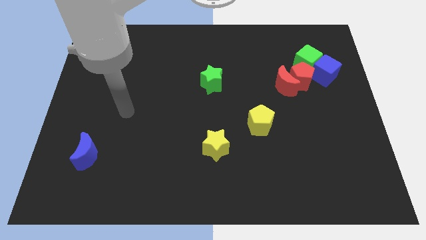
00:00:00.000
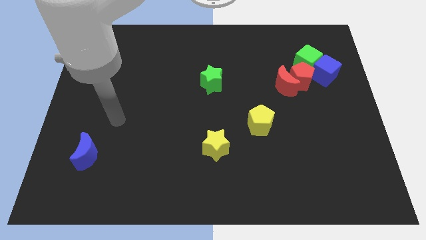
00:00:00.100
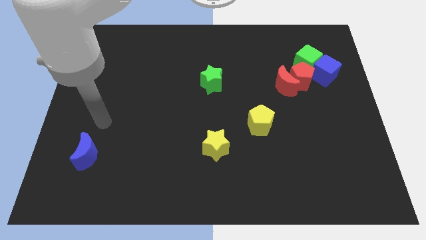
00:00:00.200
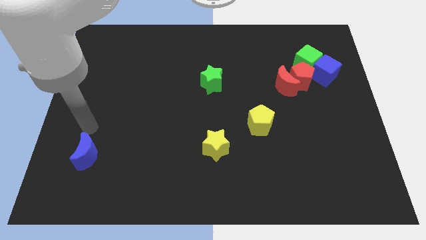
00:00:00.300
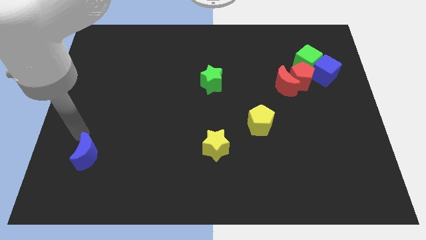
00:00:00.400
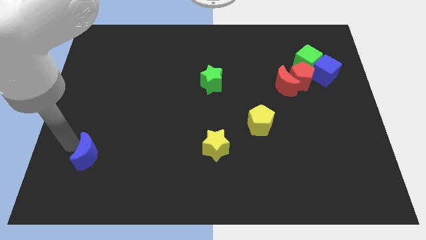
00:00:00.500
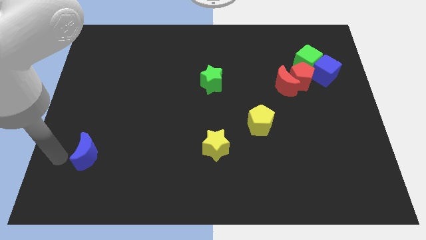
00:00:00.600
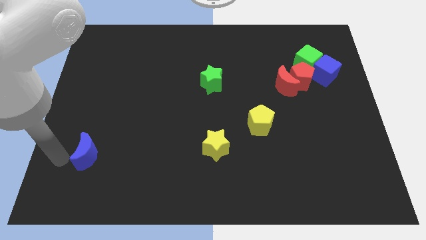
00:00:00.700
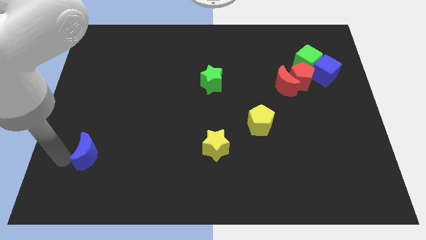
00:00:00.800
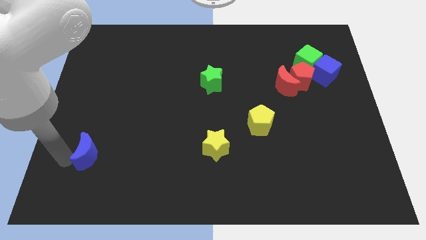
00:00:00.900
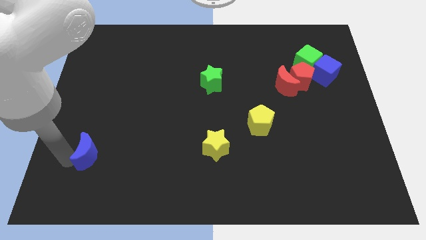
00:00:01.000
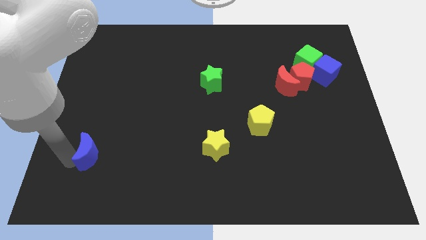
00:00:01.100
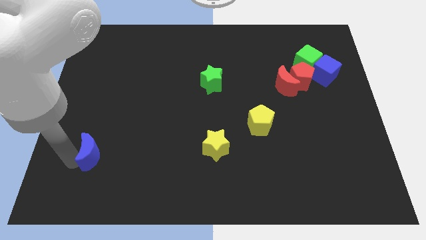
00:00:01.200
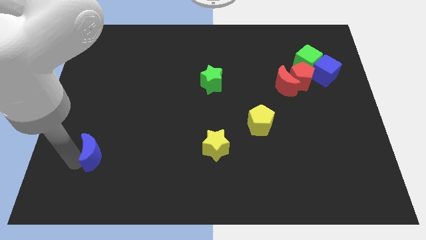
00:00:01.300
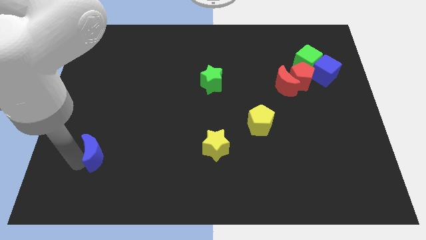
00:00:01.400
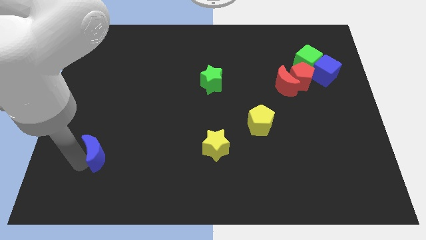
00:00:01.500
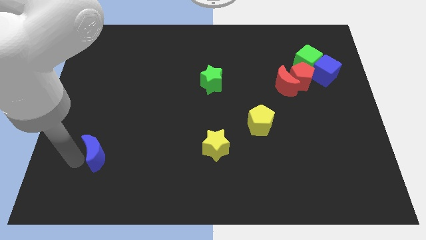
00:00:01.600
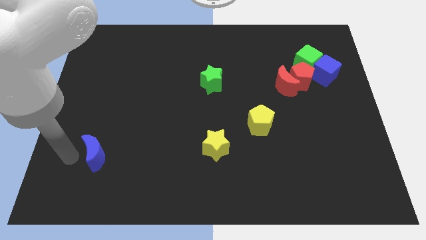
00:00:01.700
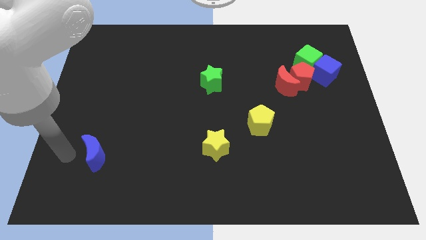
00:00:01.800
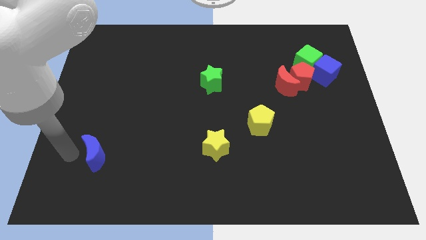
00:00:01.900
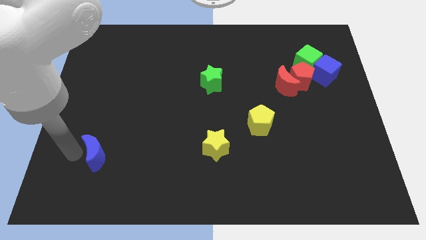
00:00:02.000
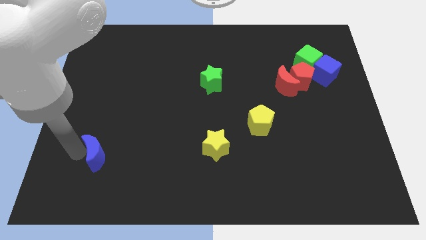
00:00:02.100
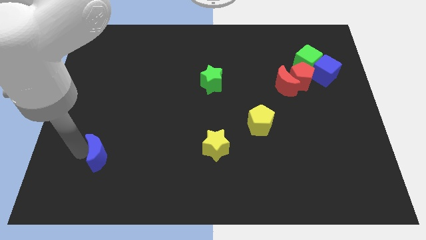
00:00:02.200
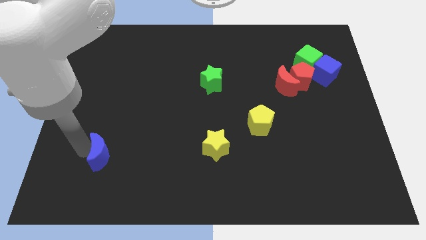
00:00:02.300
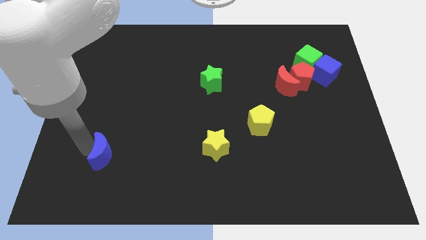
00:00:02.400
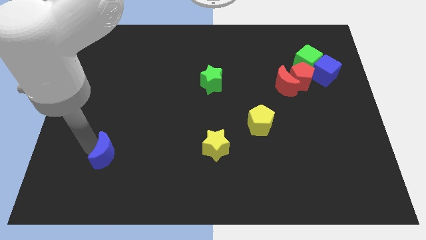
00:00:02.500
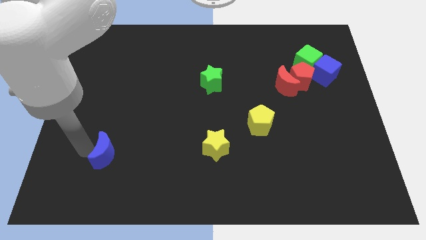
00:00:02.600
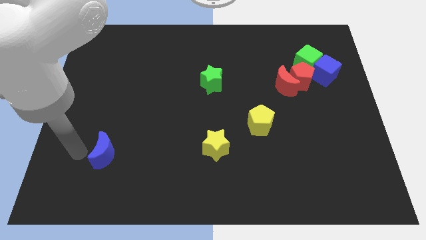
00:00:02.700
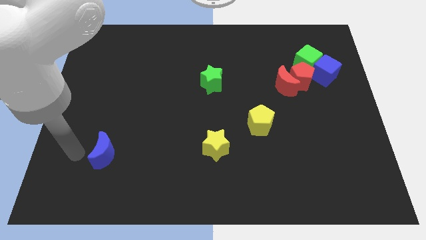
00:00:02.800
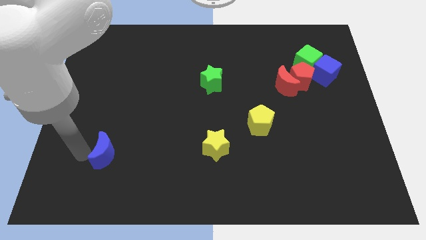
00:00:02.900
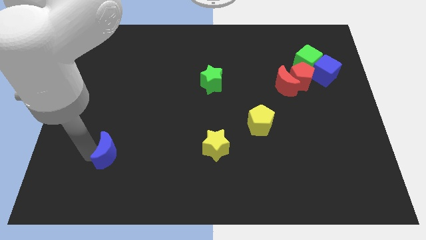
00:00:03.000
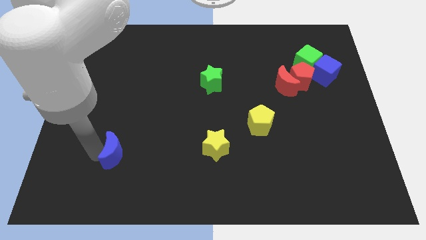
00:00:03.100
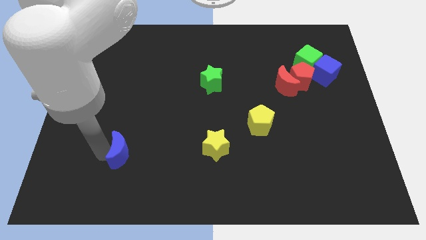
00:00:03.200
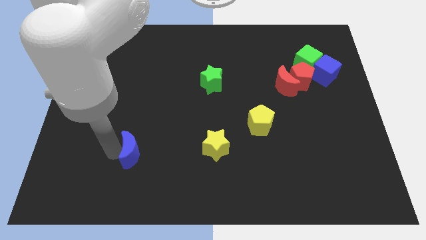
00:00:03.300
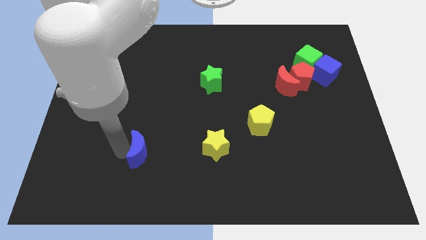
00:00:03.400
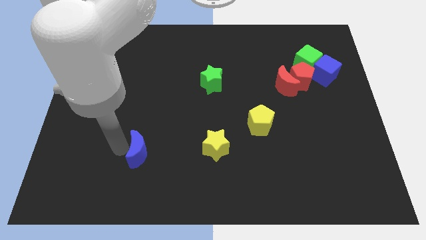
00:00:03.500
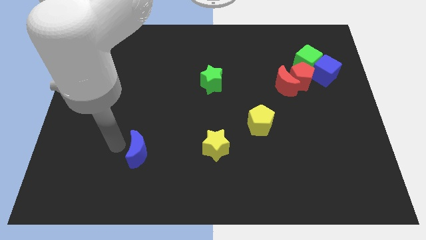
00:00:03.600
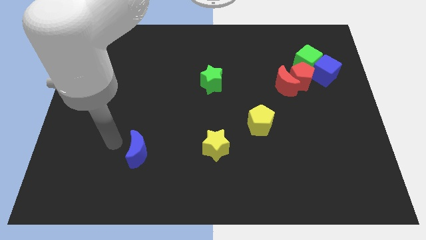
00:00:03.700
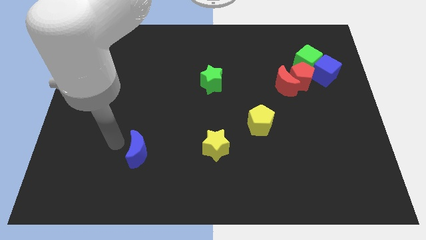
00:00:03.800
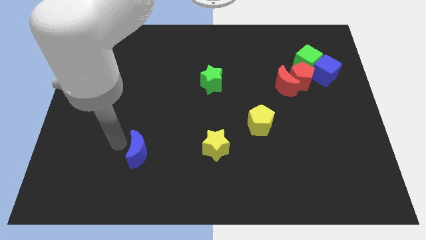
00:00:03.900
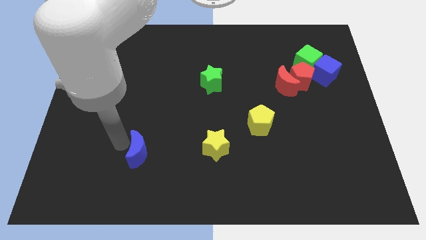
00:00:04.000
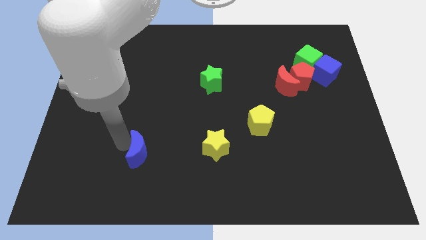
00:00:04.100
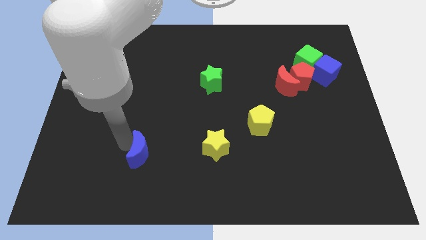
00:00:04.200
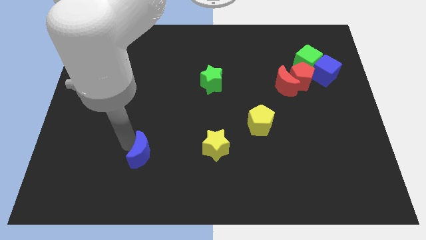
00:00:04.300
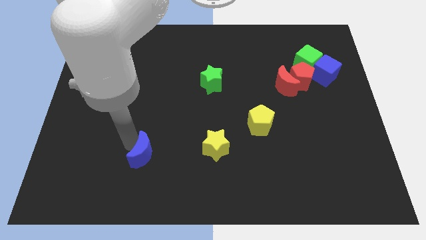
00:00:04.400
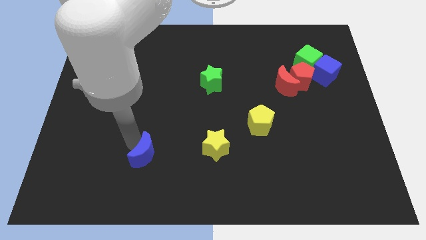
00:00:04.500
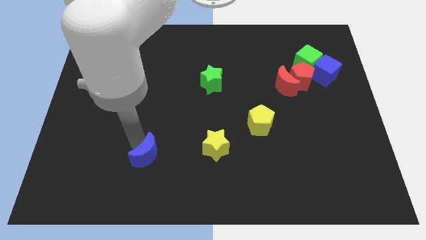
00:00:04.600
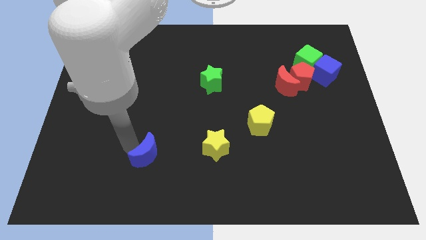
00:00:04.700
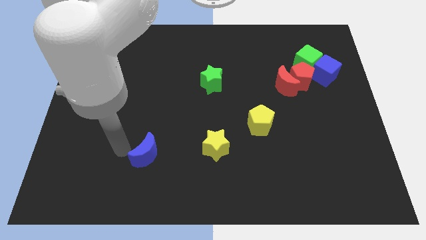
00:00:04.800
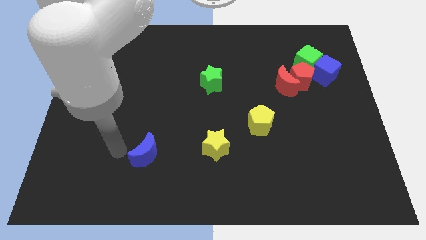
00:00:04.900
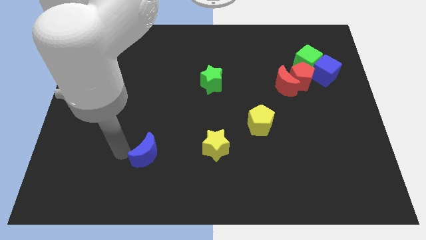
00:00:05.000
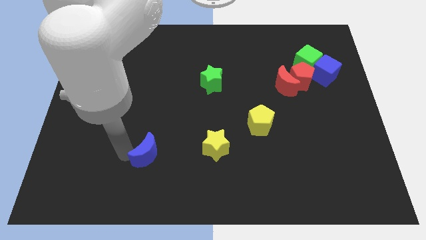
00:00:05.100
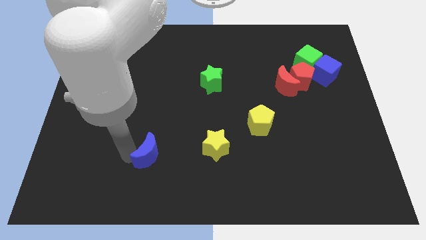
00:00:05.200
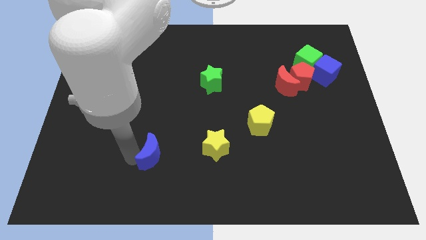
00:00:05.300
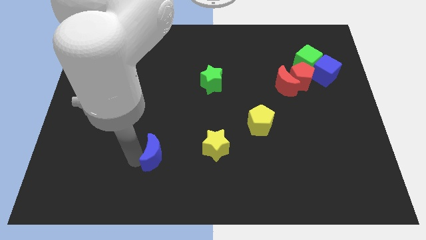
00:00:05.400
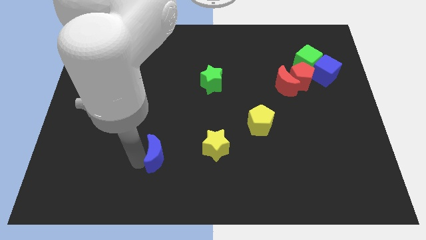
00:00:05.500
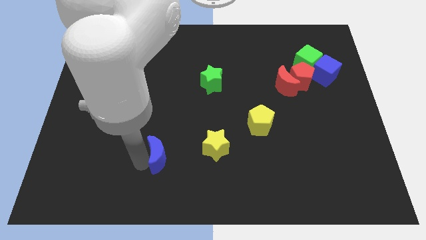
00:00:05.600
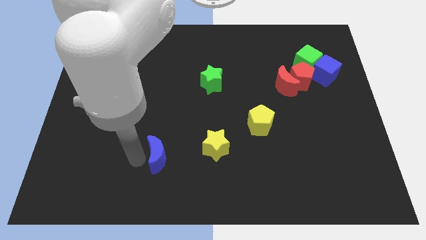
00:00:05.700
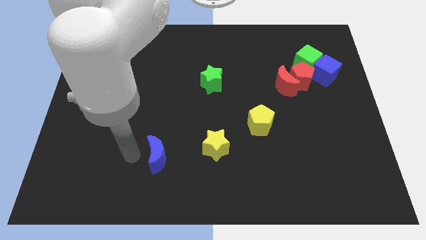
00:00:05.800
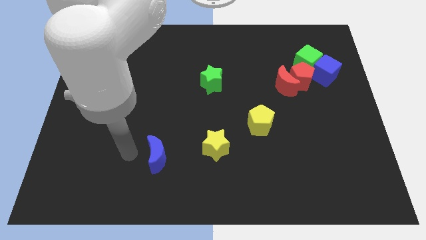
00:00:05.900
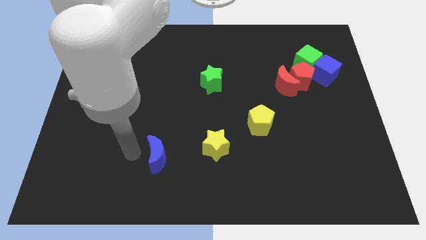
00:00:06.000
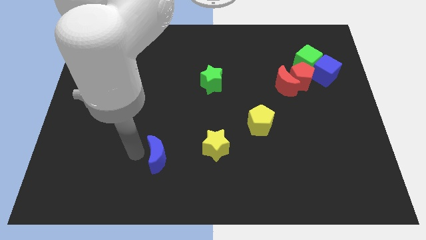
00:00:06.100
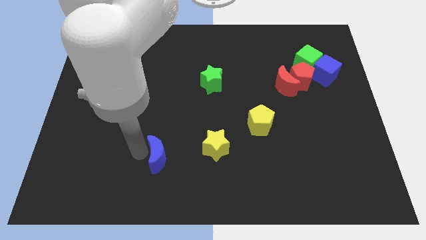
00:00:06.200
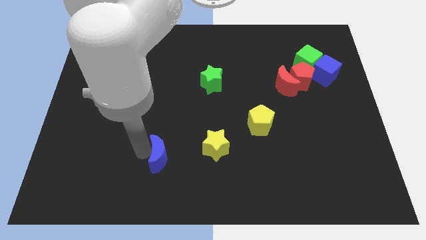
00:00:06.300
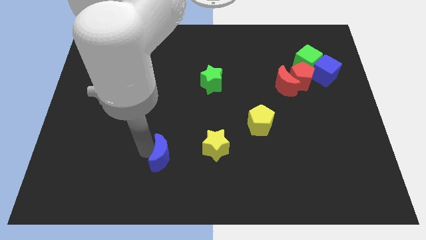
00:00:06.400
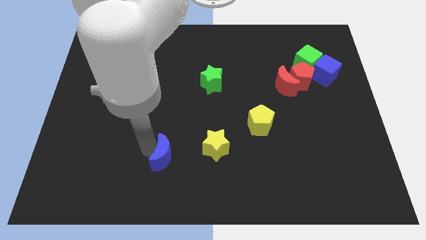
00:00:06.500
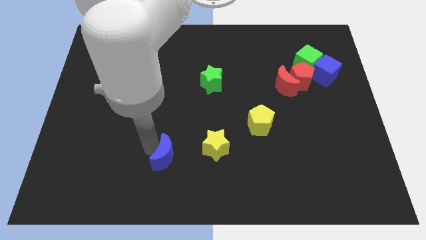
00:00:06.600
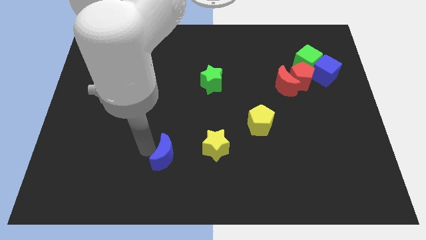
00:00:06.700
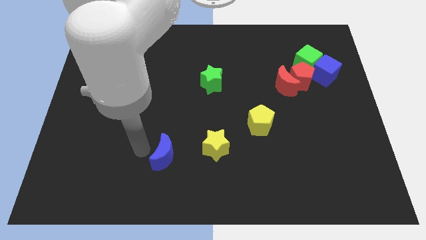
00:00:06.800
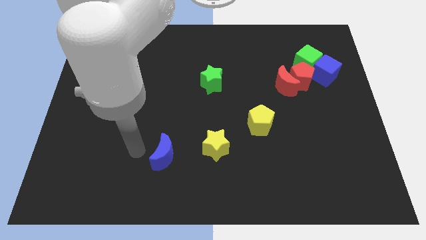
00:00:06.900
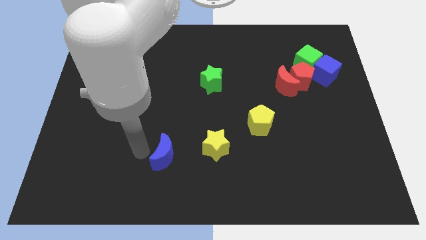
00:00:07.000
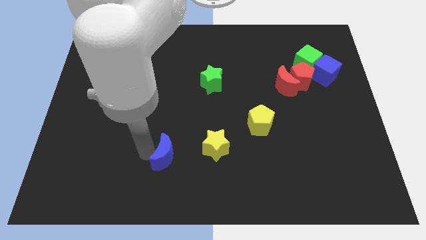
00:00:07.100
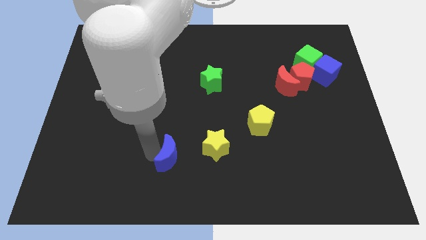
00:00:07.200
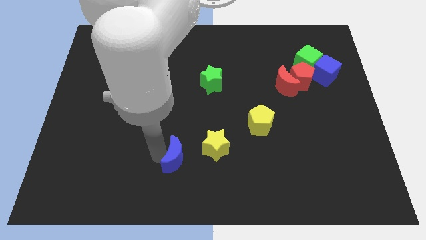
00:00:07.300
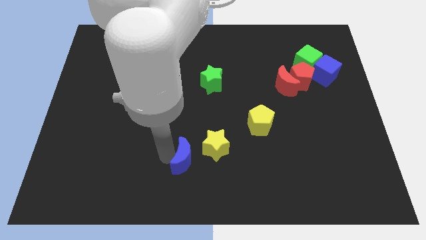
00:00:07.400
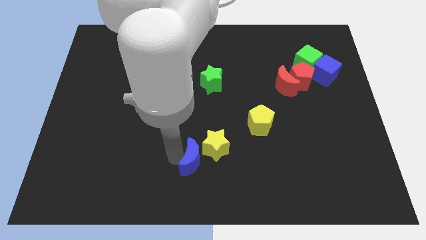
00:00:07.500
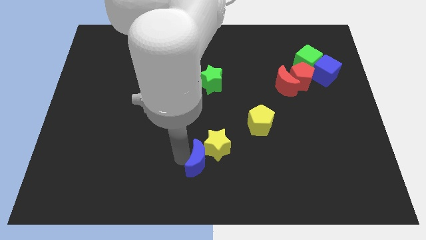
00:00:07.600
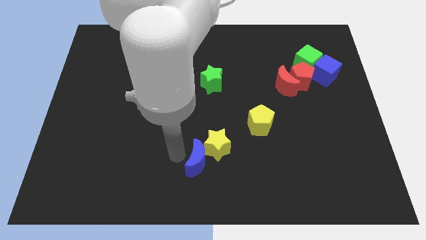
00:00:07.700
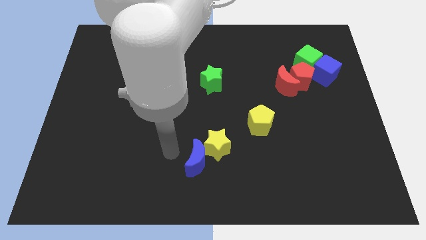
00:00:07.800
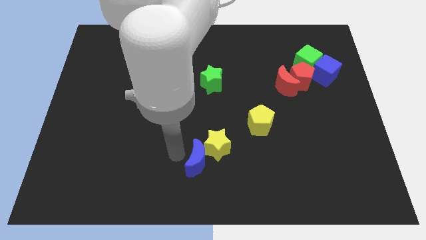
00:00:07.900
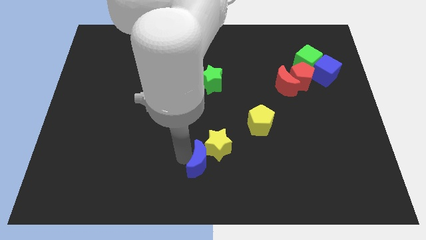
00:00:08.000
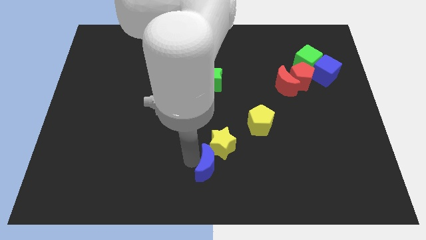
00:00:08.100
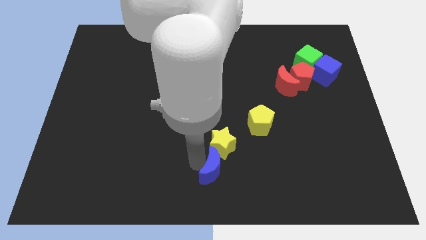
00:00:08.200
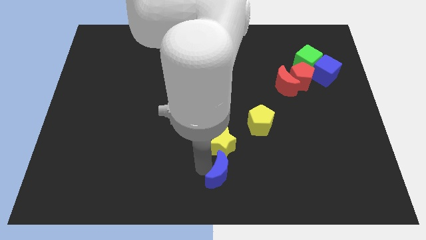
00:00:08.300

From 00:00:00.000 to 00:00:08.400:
put the blue moon diagonally down and to the right of the yellow star
